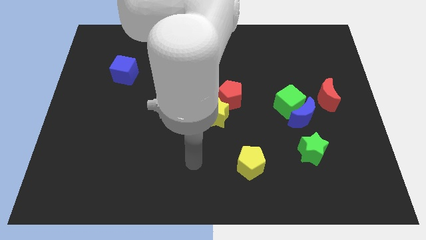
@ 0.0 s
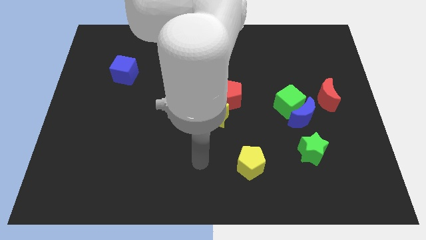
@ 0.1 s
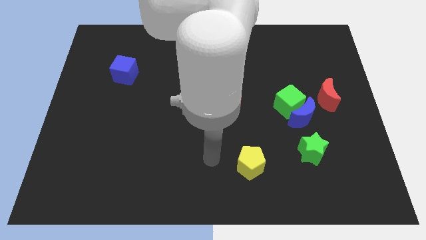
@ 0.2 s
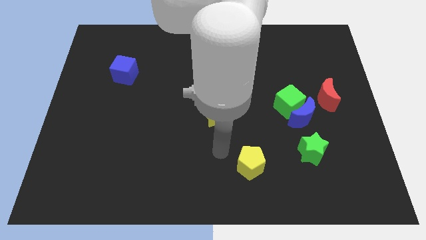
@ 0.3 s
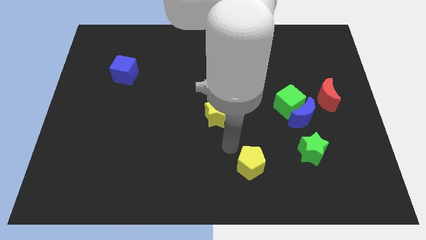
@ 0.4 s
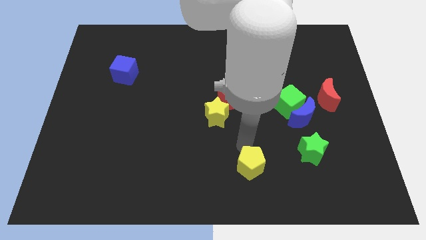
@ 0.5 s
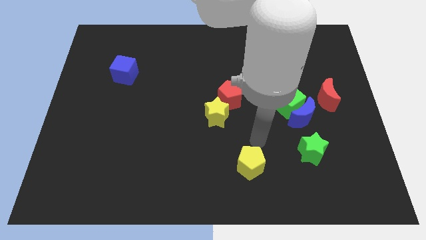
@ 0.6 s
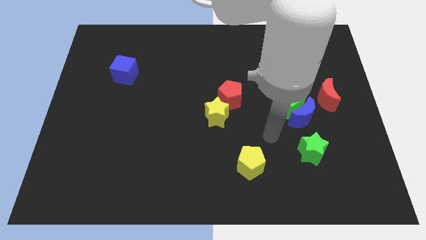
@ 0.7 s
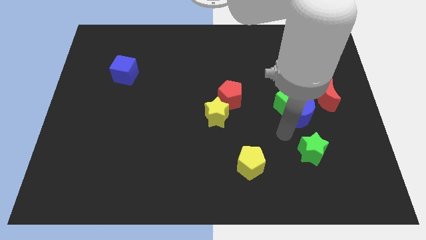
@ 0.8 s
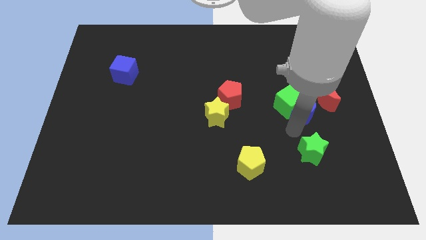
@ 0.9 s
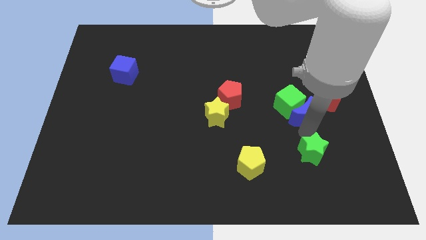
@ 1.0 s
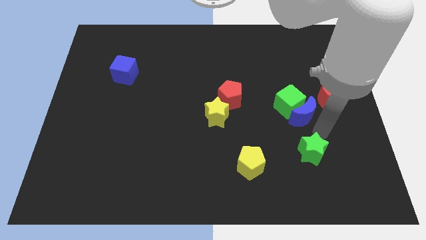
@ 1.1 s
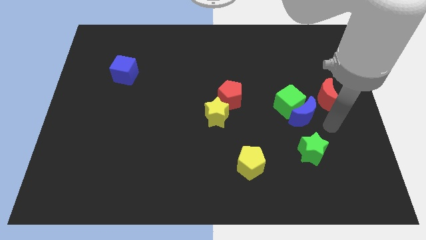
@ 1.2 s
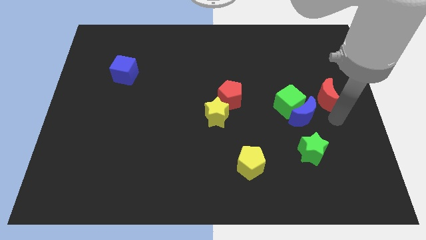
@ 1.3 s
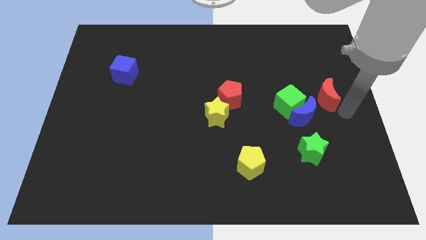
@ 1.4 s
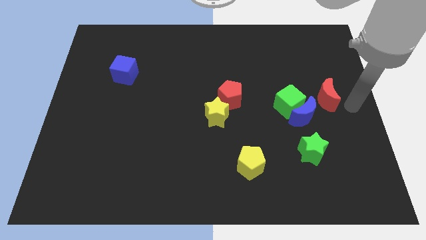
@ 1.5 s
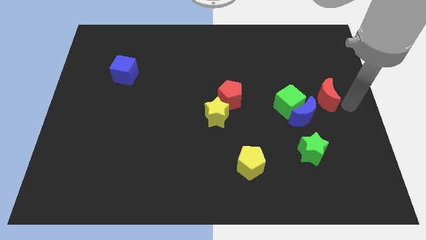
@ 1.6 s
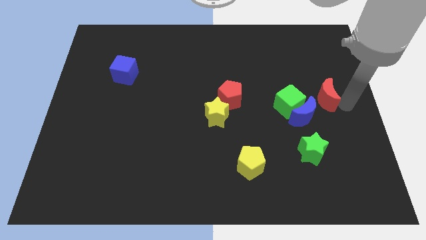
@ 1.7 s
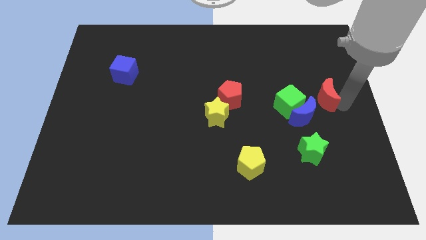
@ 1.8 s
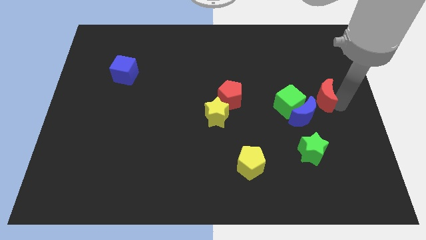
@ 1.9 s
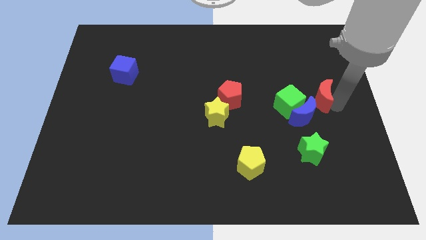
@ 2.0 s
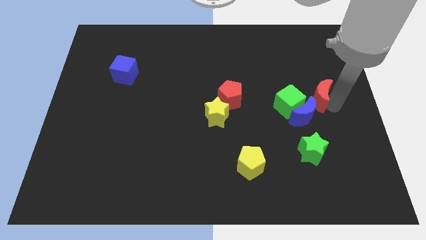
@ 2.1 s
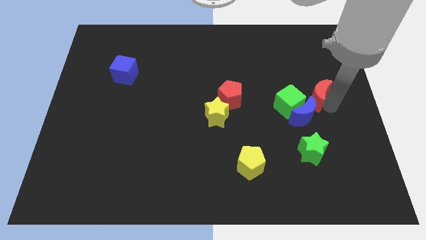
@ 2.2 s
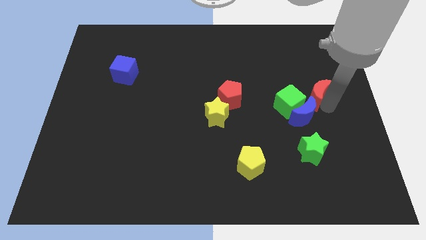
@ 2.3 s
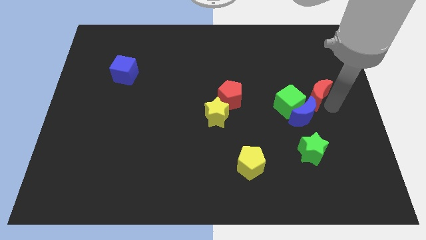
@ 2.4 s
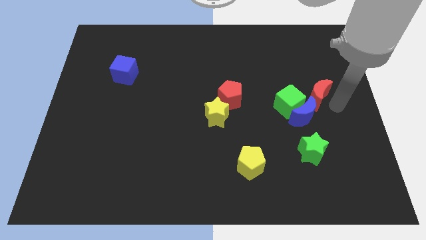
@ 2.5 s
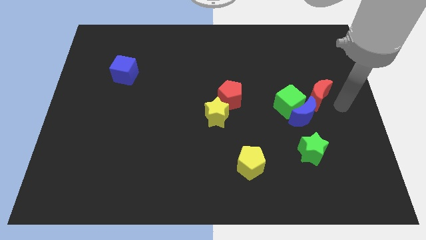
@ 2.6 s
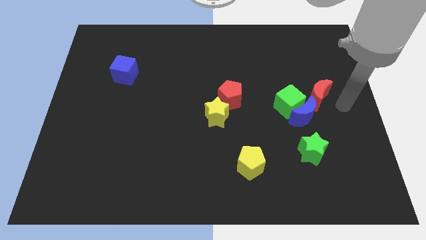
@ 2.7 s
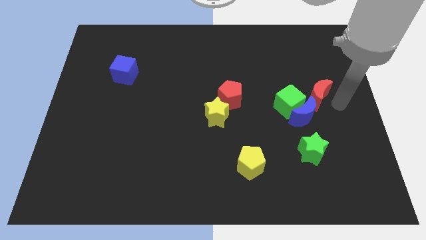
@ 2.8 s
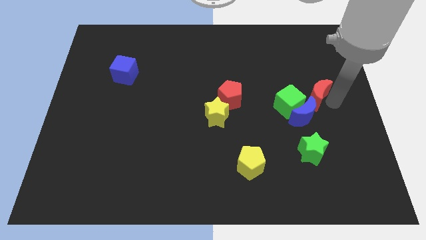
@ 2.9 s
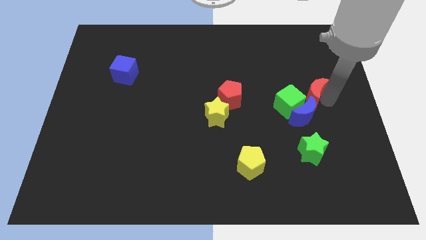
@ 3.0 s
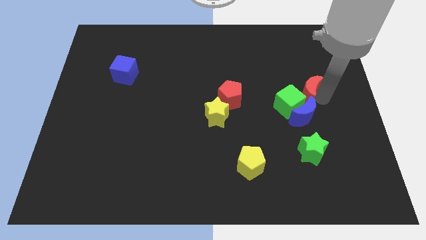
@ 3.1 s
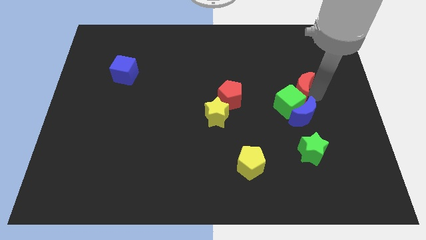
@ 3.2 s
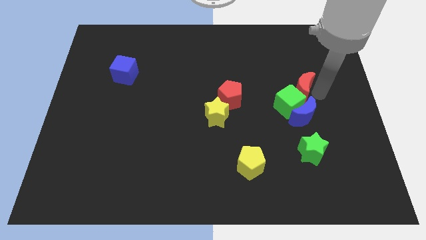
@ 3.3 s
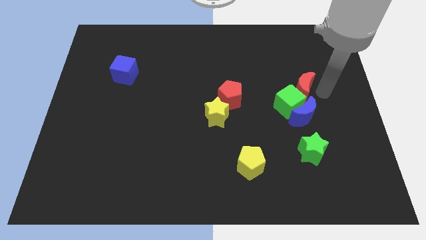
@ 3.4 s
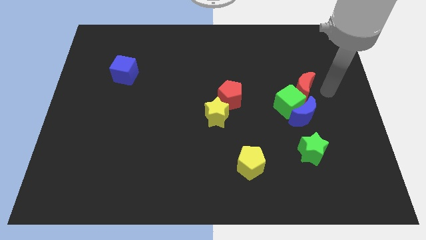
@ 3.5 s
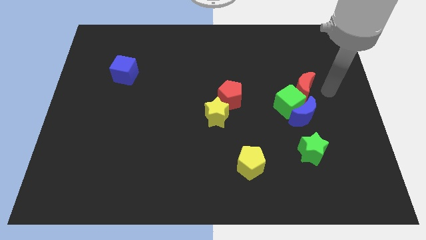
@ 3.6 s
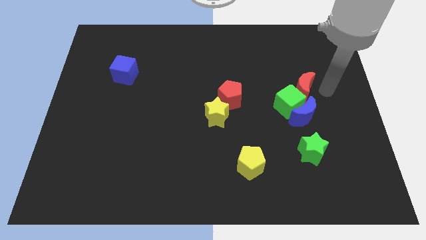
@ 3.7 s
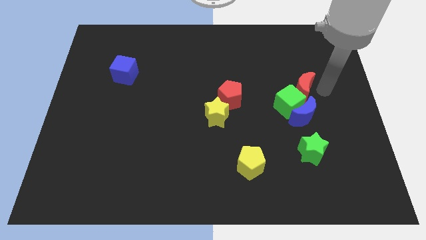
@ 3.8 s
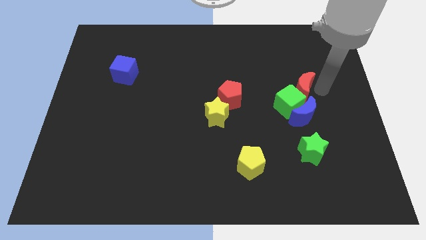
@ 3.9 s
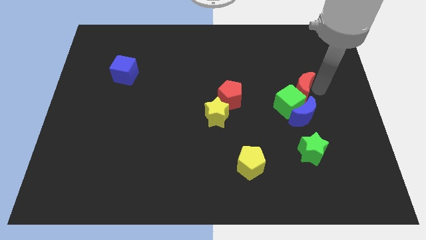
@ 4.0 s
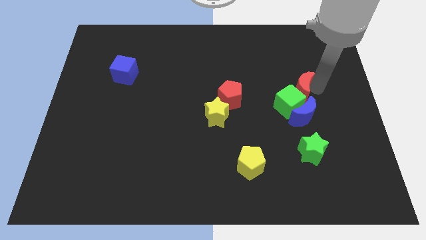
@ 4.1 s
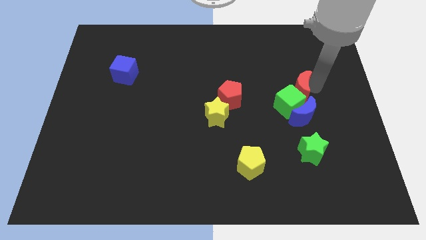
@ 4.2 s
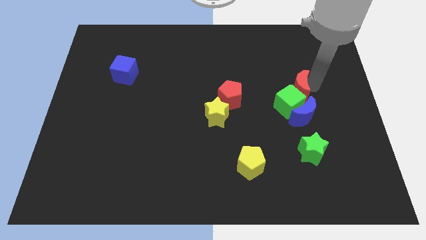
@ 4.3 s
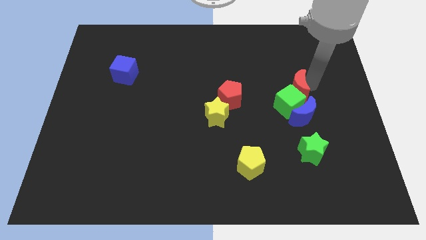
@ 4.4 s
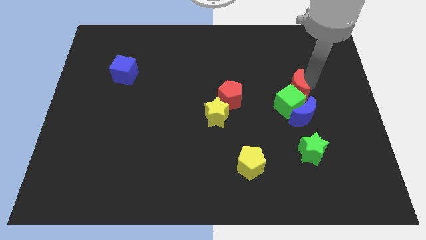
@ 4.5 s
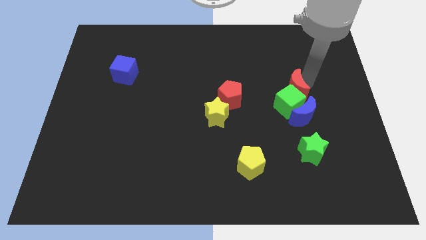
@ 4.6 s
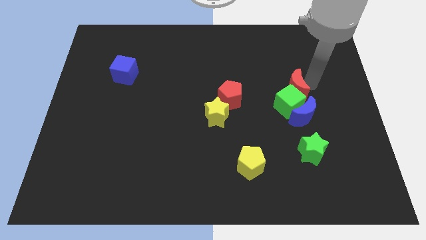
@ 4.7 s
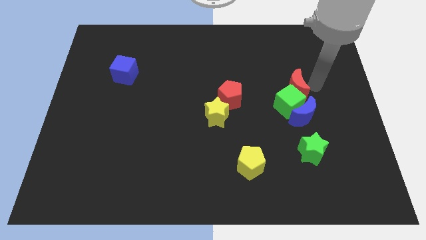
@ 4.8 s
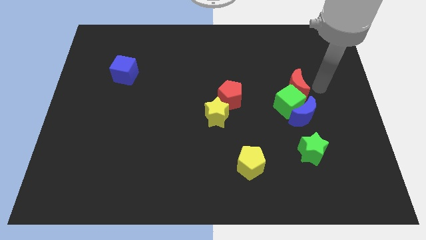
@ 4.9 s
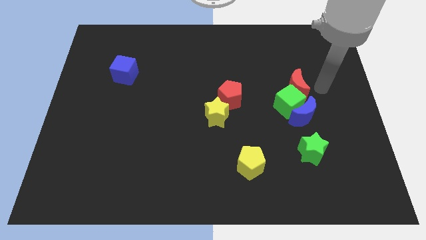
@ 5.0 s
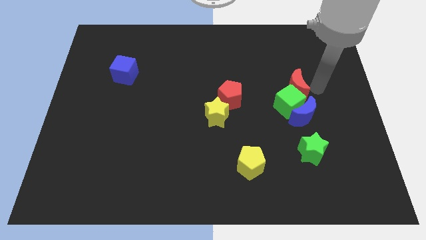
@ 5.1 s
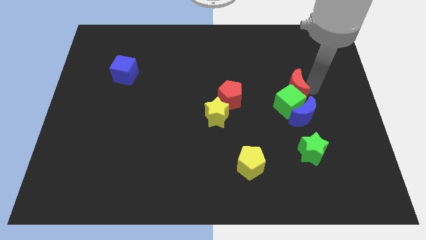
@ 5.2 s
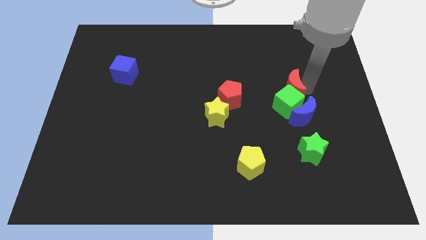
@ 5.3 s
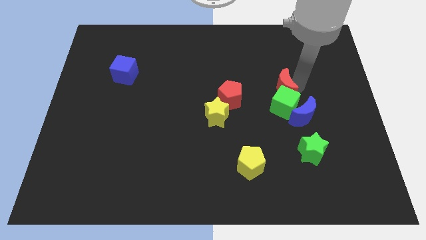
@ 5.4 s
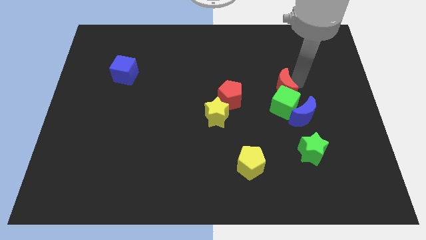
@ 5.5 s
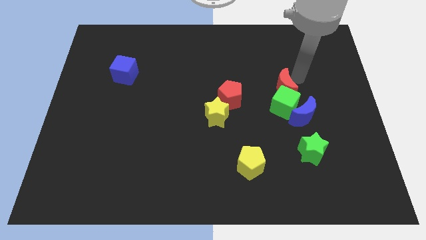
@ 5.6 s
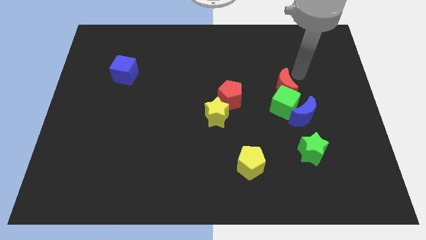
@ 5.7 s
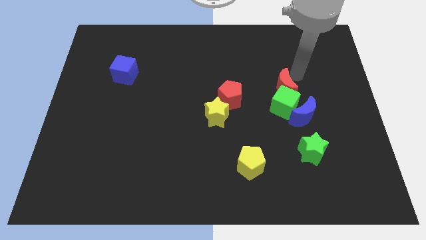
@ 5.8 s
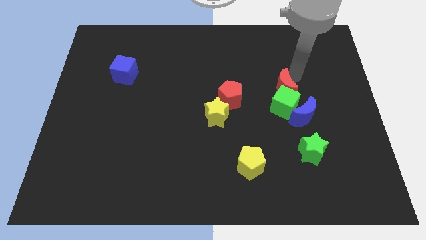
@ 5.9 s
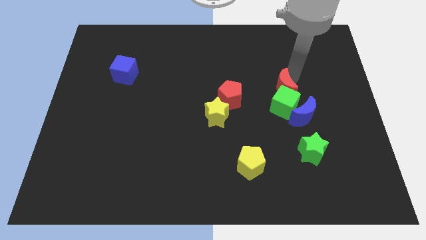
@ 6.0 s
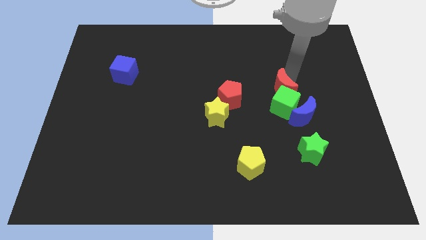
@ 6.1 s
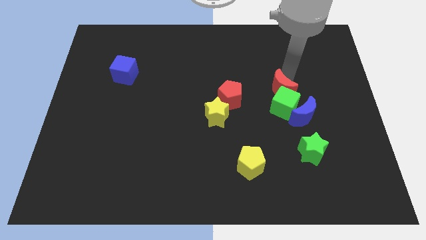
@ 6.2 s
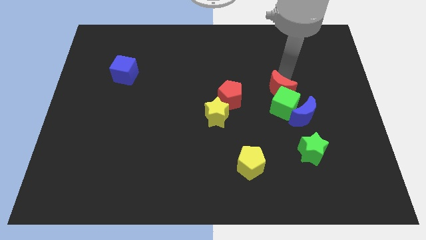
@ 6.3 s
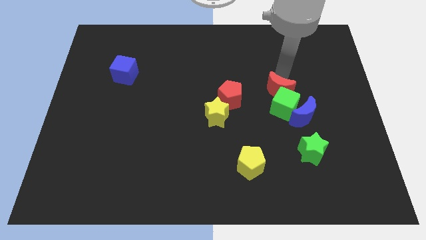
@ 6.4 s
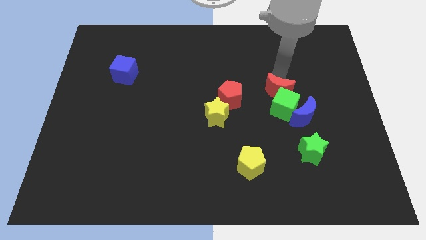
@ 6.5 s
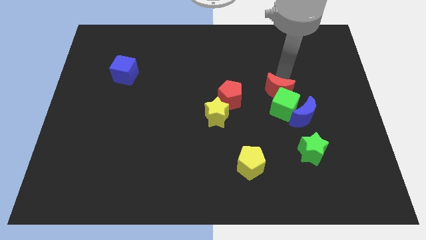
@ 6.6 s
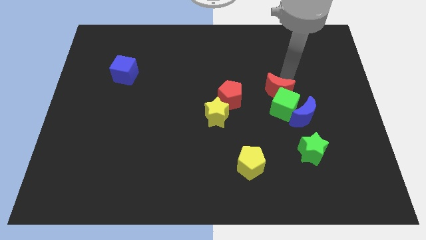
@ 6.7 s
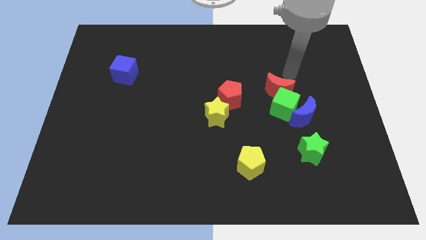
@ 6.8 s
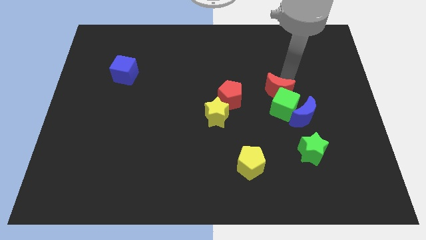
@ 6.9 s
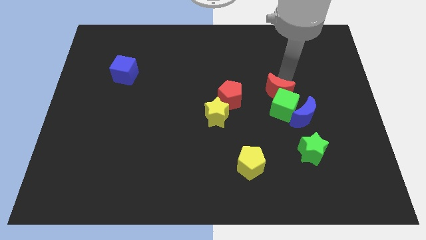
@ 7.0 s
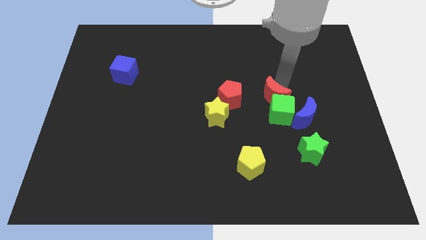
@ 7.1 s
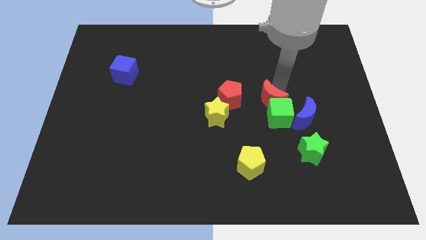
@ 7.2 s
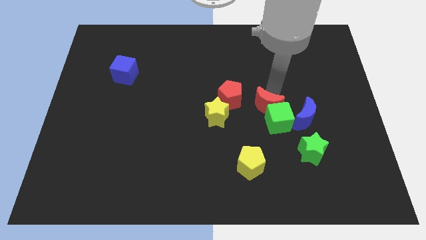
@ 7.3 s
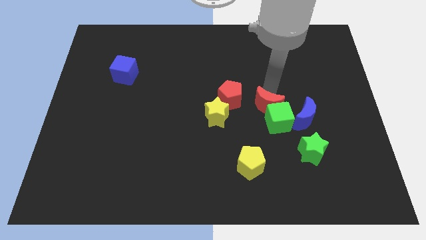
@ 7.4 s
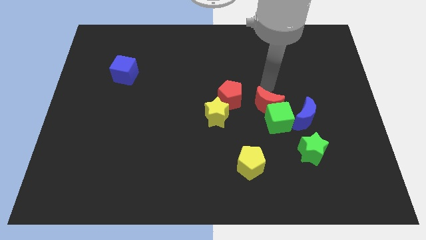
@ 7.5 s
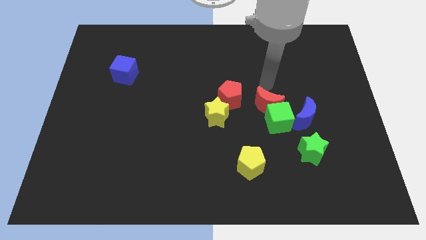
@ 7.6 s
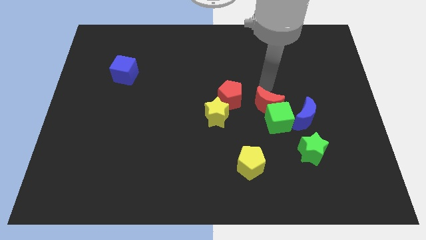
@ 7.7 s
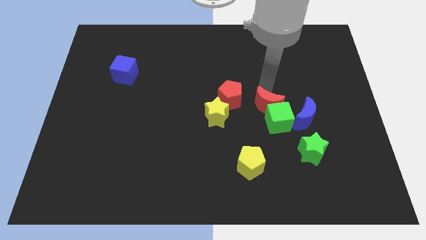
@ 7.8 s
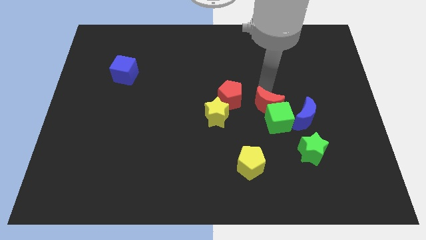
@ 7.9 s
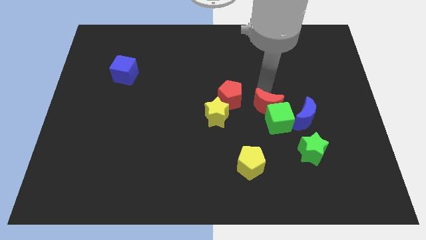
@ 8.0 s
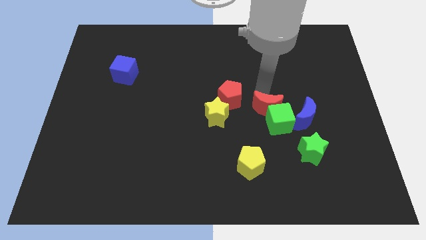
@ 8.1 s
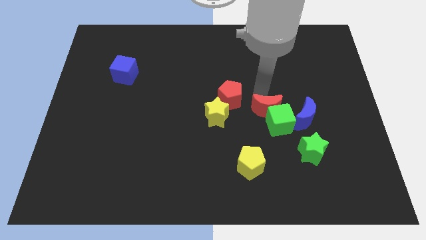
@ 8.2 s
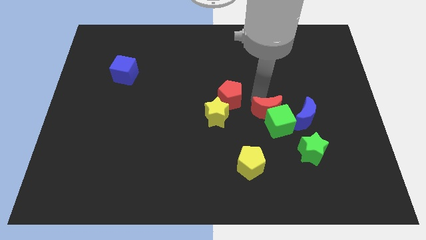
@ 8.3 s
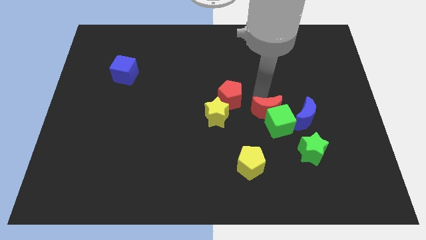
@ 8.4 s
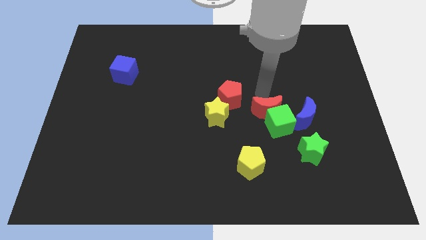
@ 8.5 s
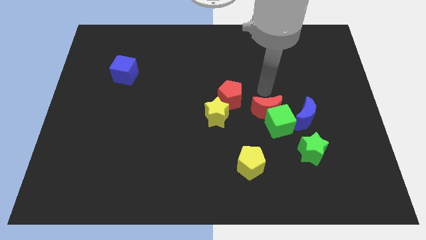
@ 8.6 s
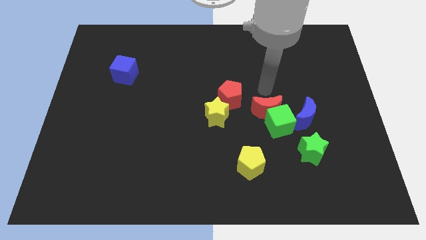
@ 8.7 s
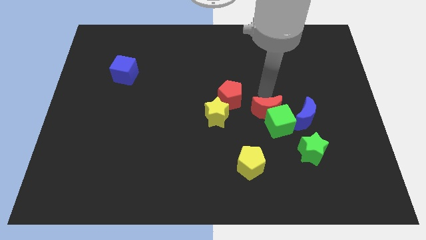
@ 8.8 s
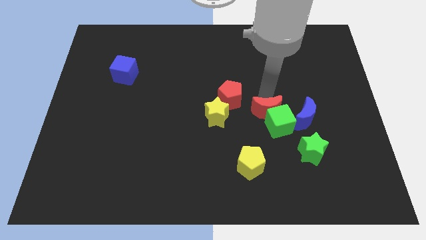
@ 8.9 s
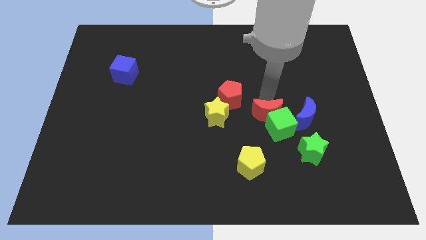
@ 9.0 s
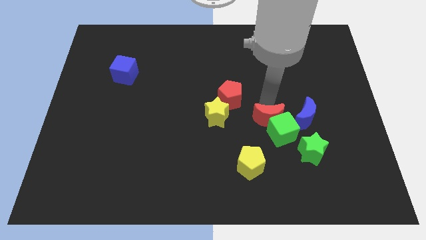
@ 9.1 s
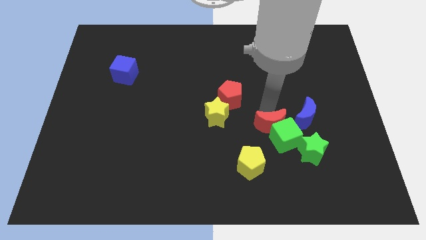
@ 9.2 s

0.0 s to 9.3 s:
move the red moon to the top right side of the yellow pentagon
